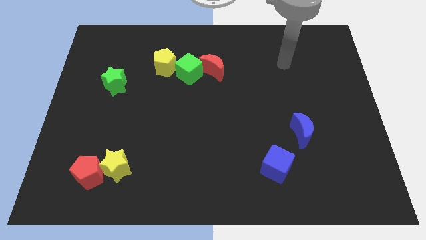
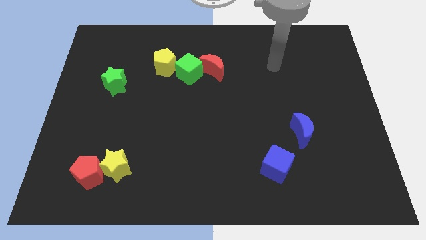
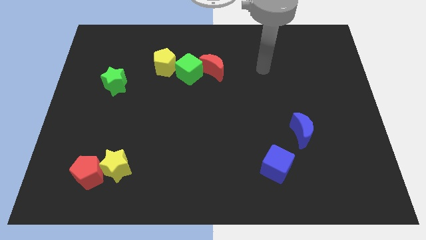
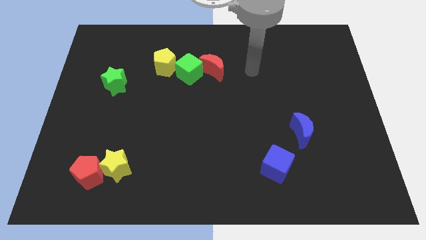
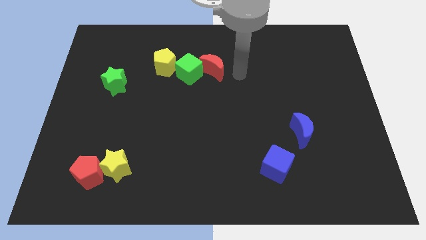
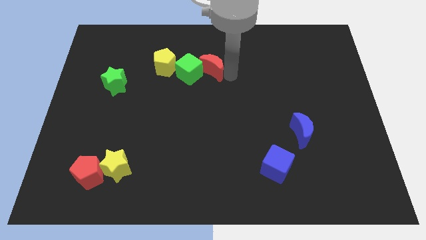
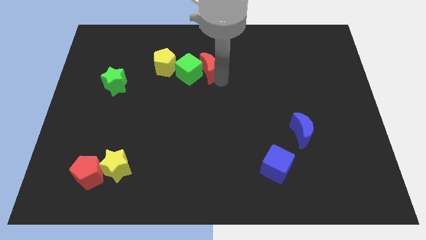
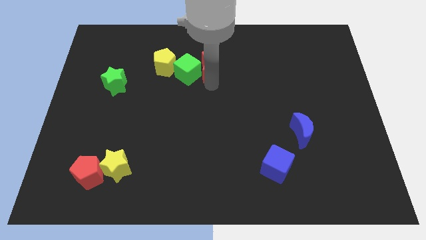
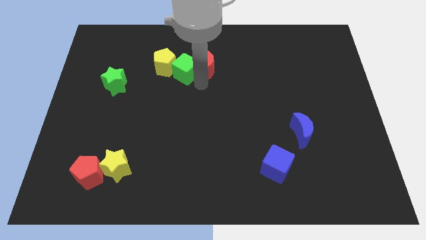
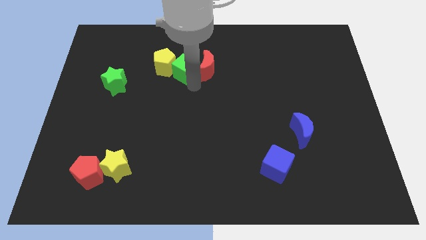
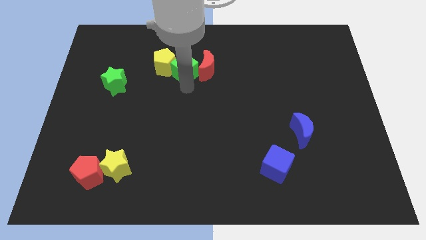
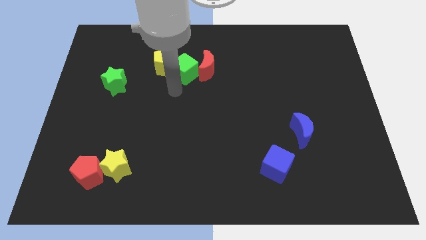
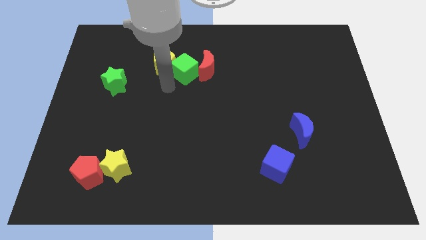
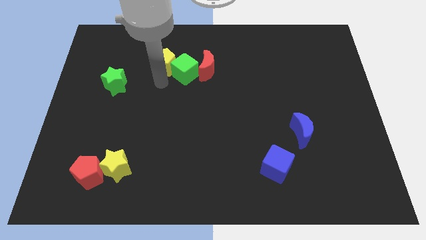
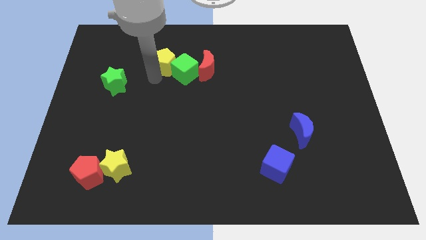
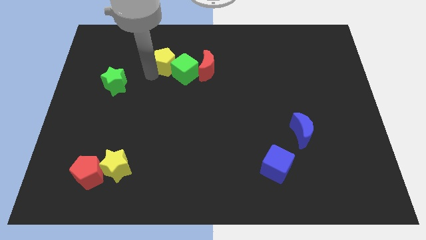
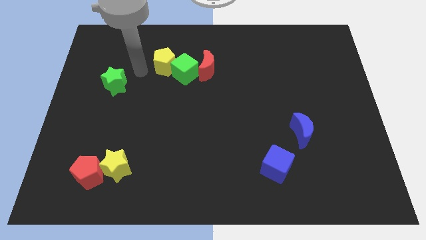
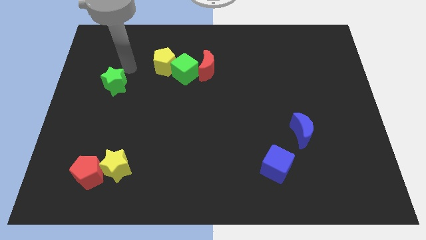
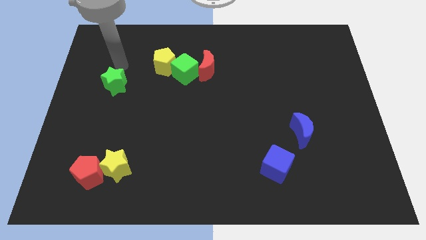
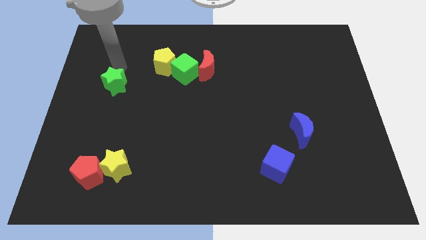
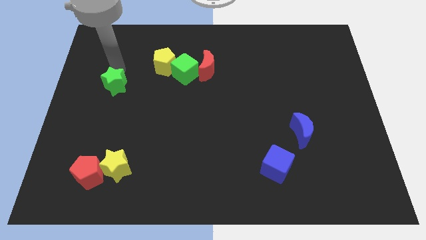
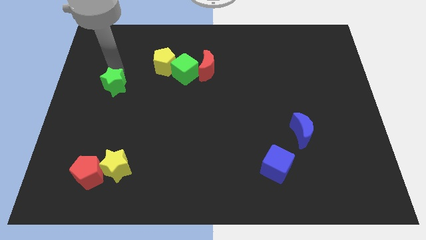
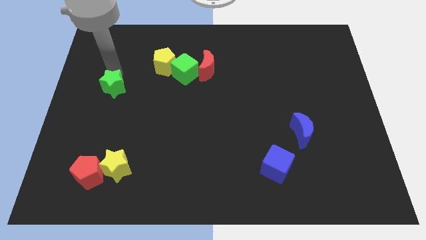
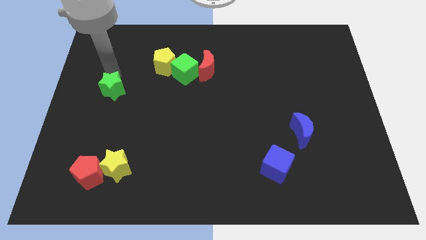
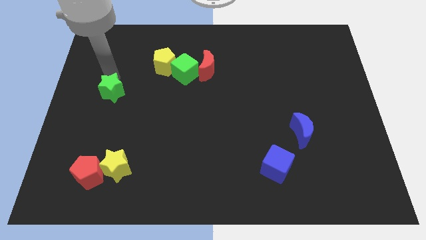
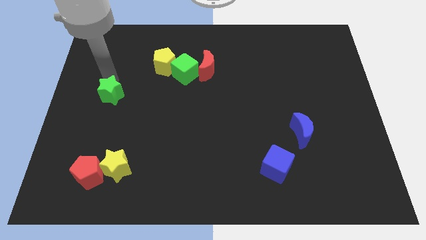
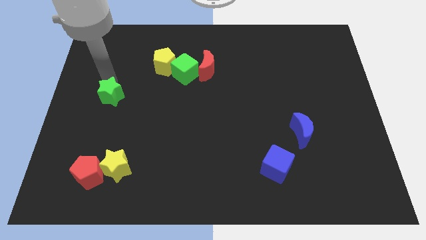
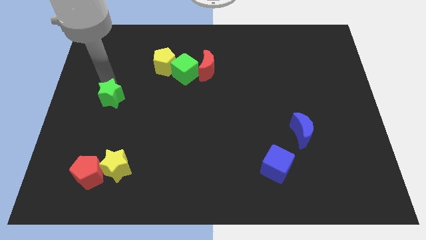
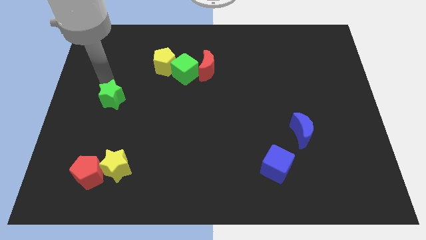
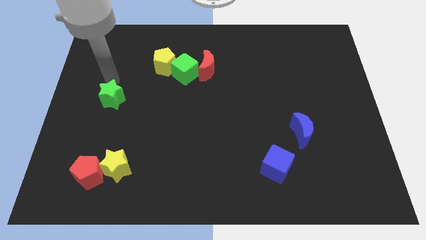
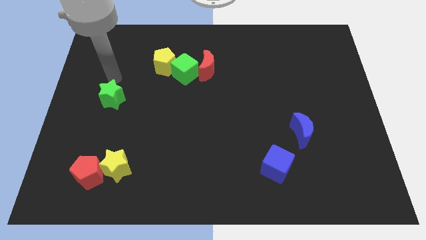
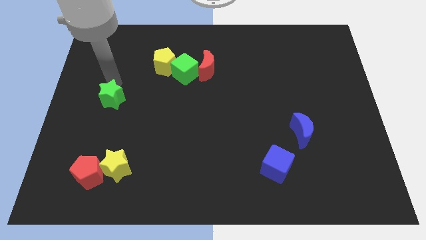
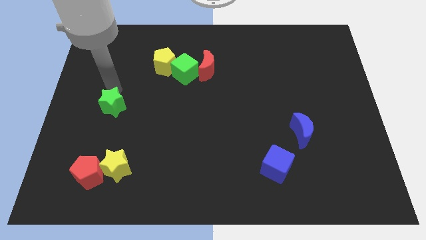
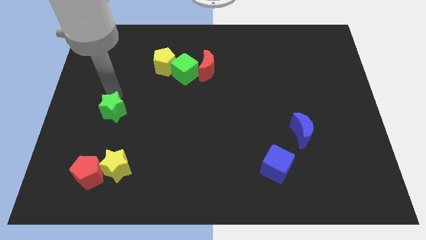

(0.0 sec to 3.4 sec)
push the green star slightly downwards

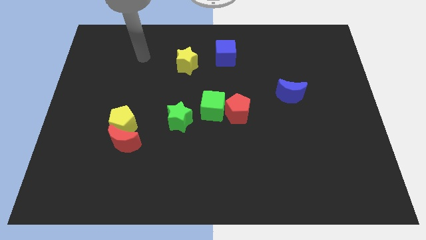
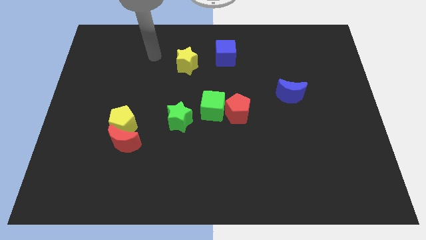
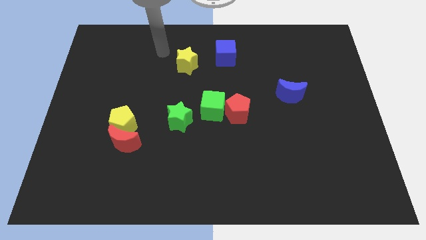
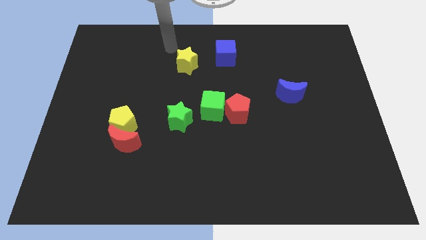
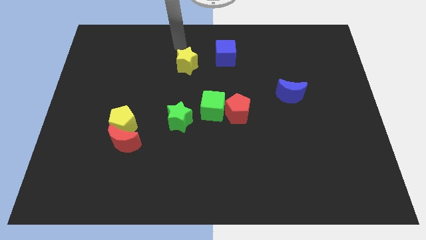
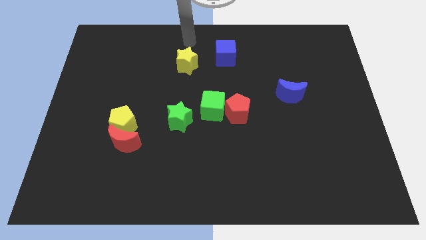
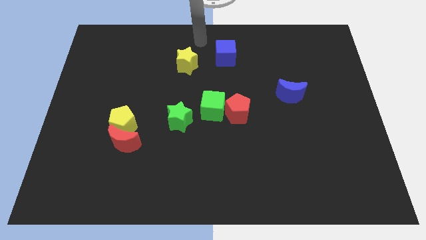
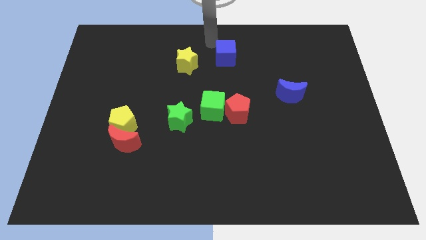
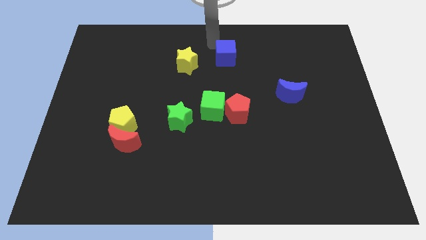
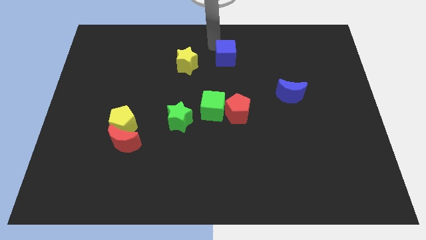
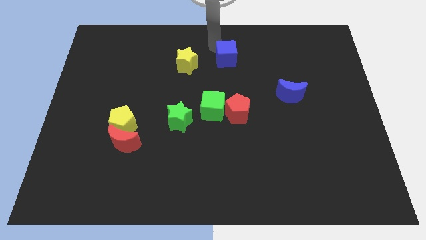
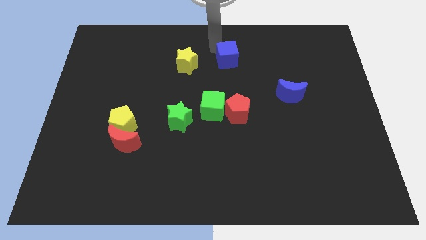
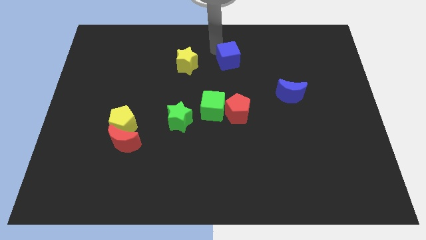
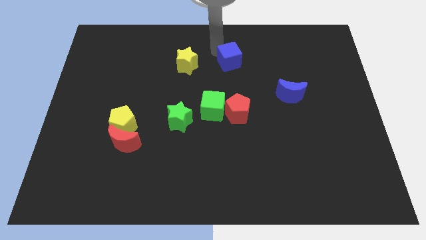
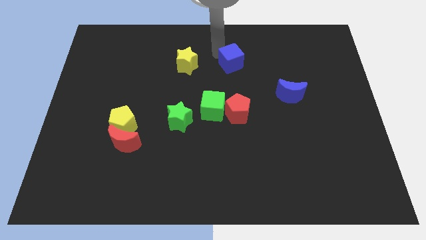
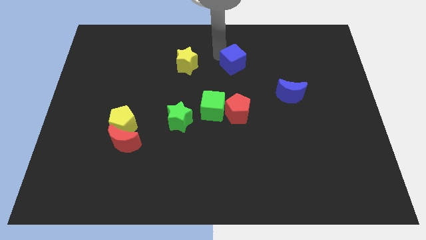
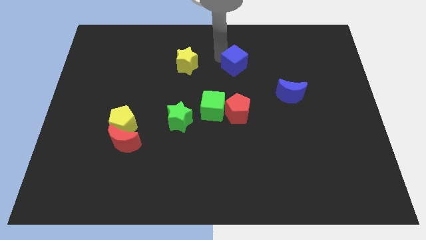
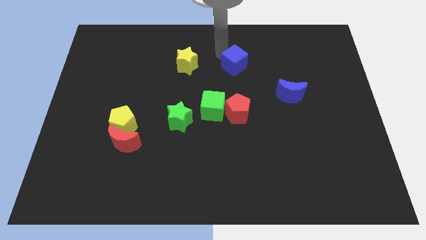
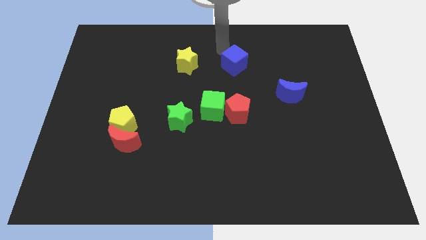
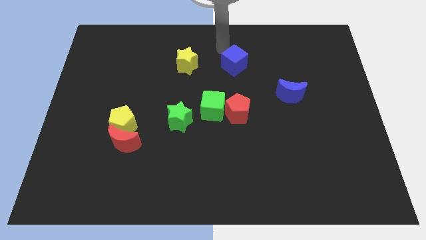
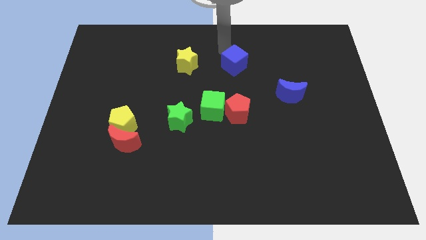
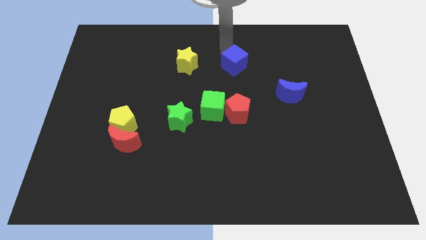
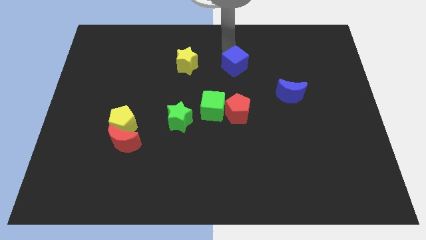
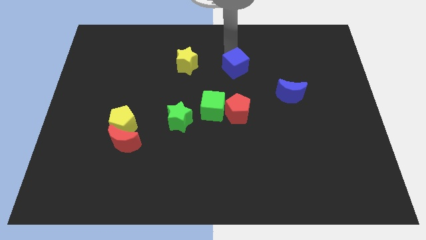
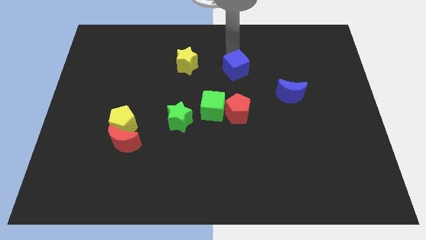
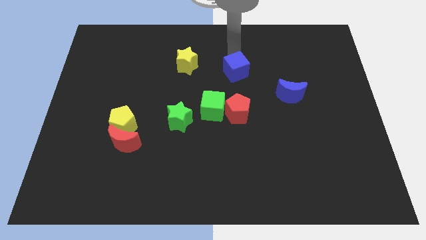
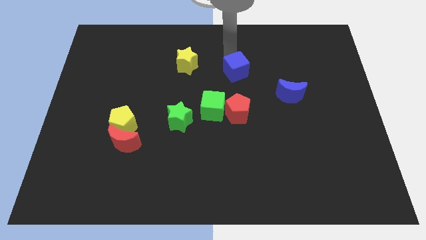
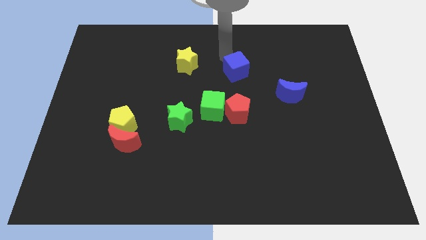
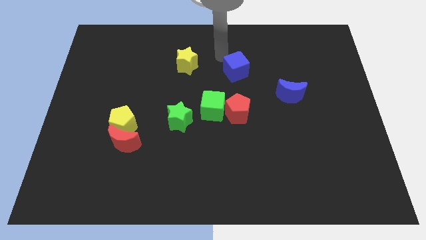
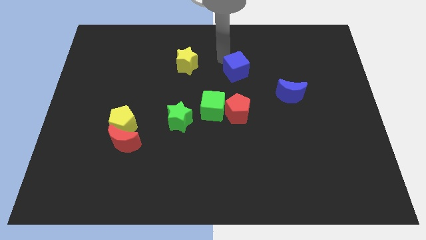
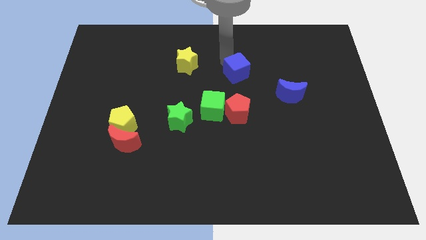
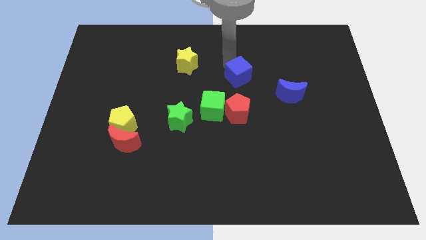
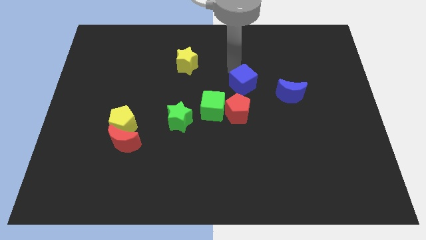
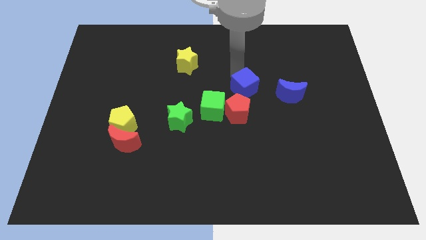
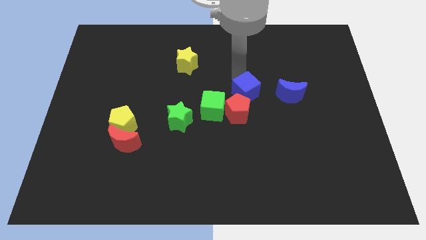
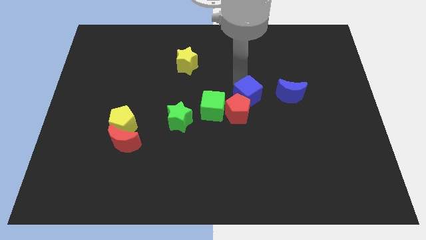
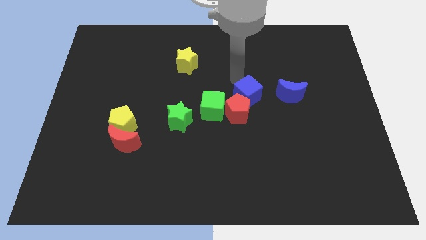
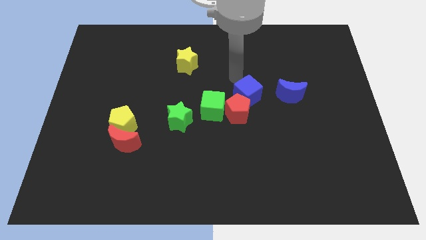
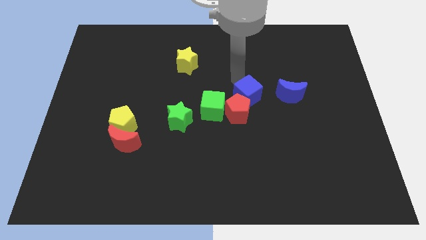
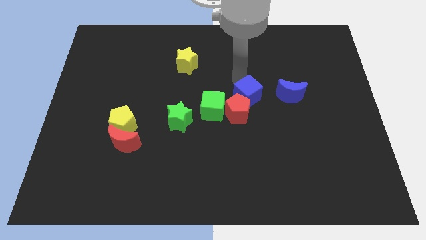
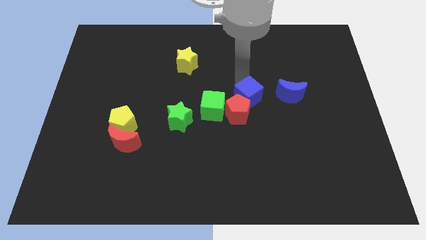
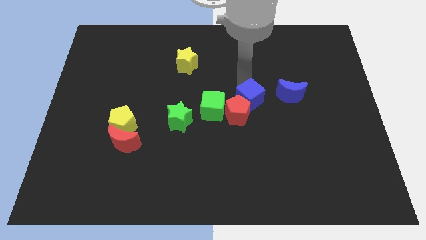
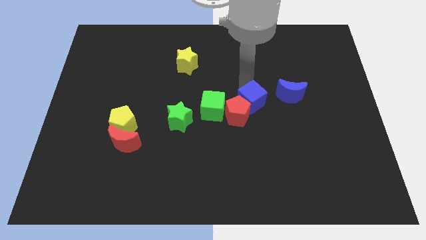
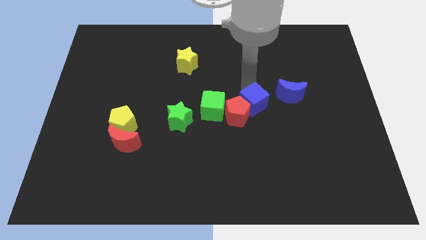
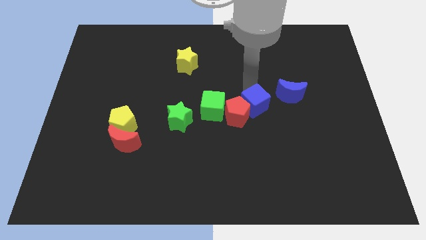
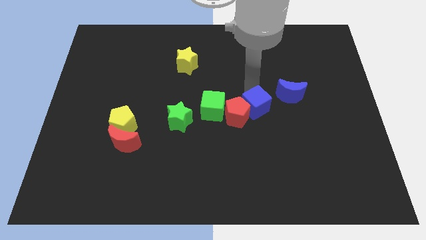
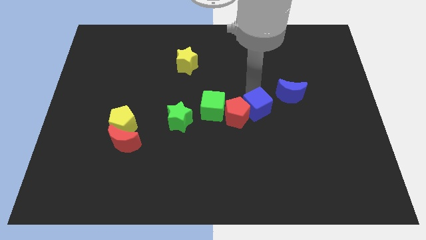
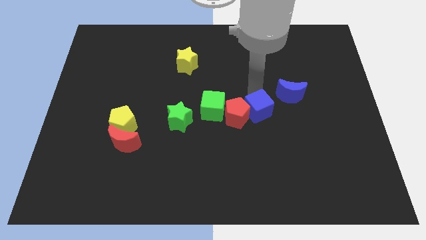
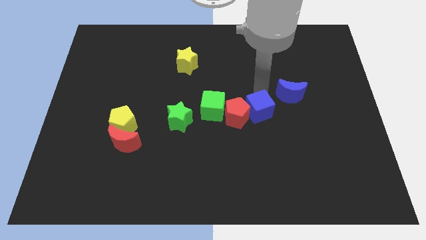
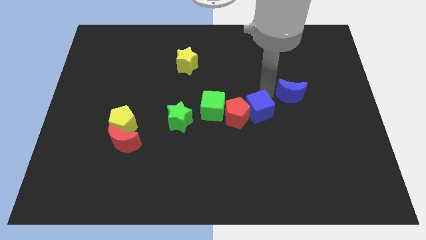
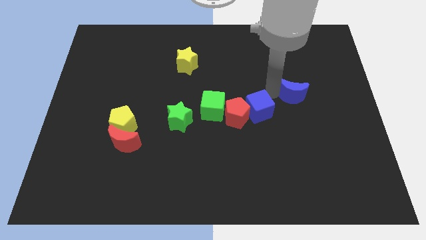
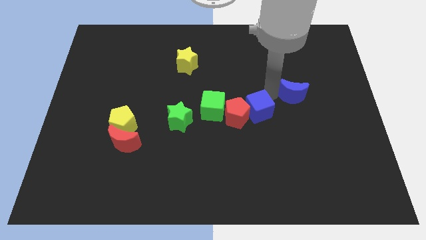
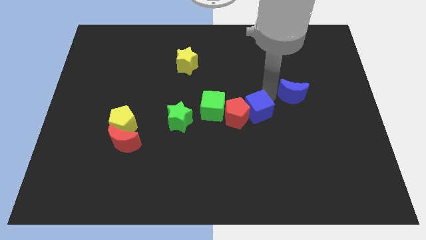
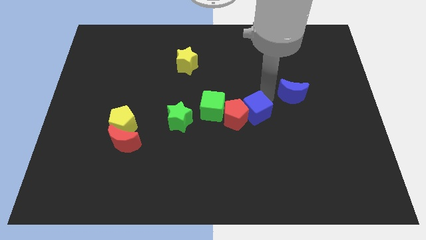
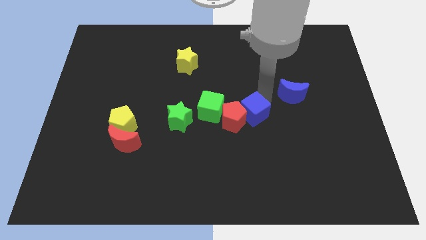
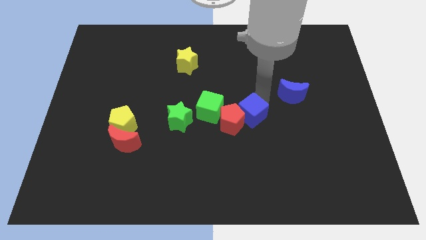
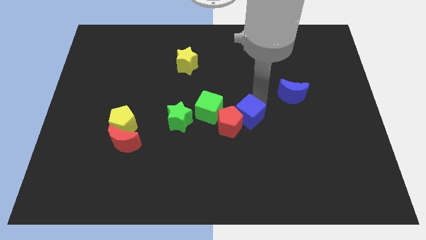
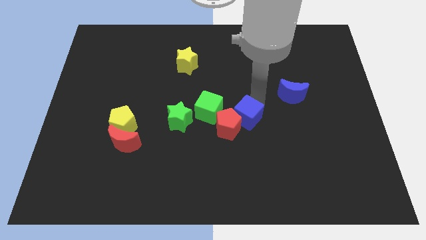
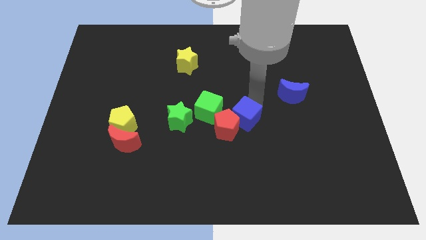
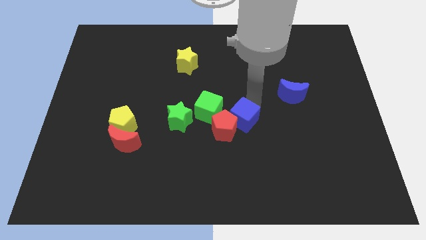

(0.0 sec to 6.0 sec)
slide the blue cube downwards
